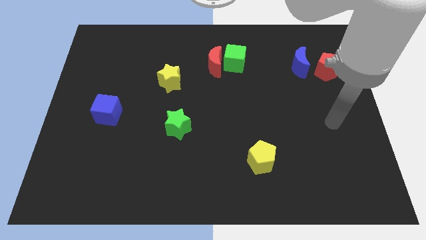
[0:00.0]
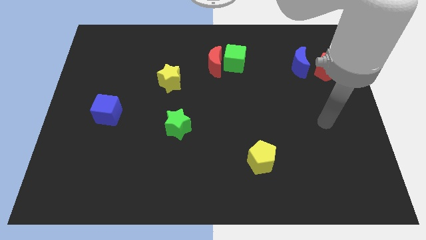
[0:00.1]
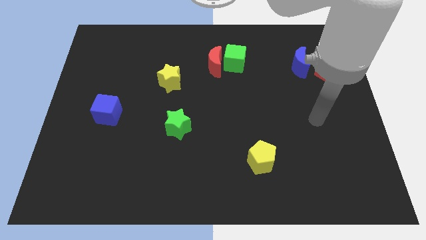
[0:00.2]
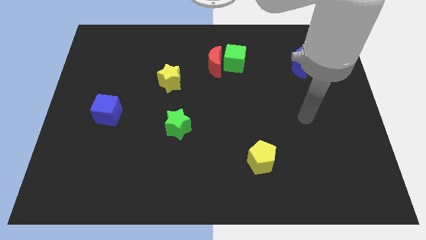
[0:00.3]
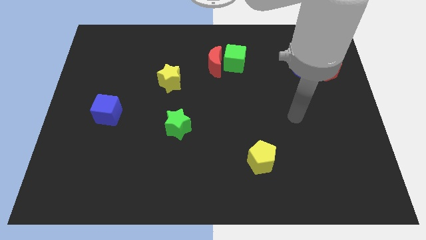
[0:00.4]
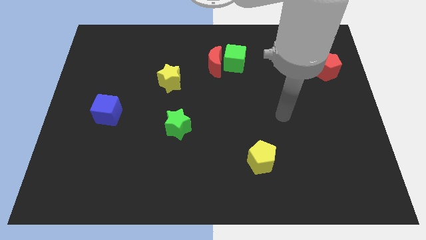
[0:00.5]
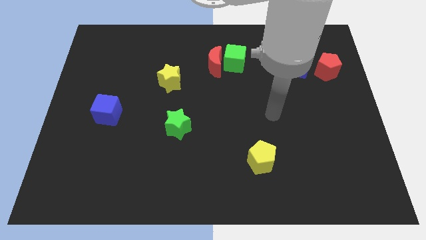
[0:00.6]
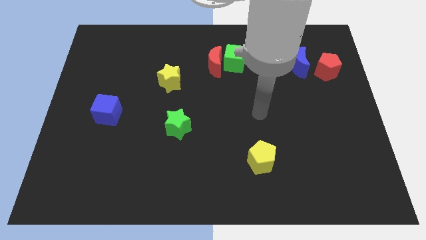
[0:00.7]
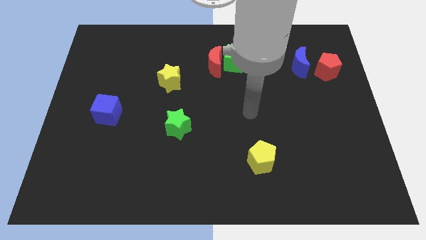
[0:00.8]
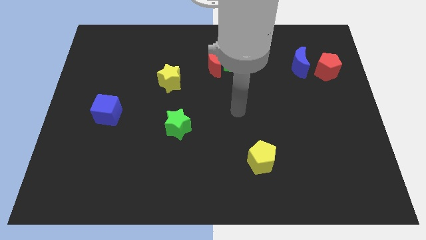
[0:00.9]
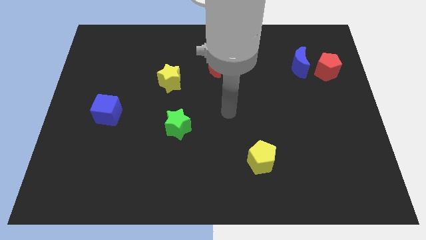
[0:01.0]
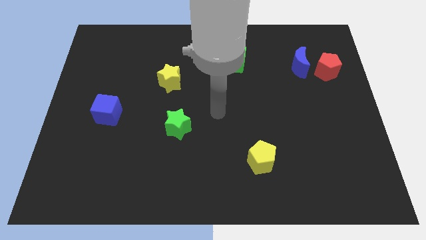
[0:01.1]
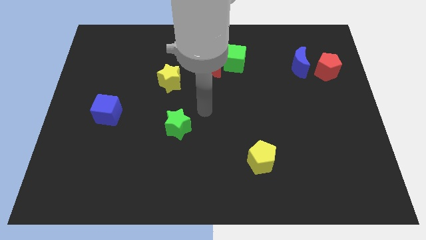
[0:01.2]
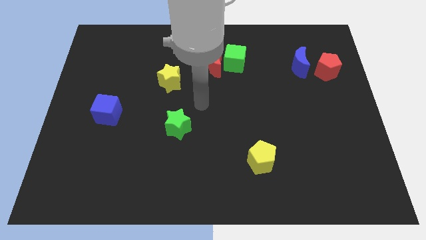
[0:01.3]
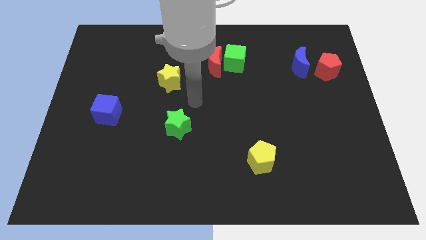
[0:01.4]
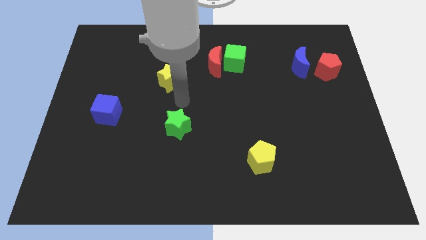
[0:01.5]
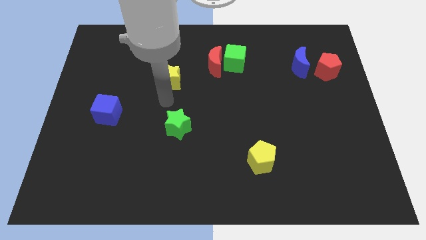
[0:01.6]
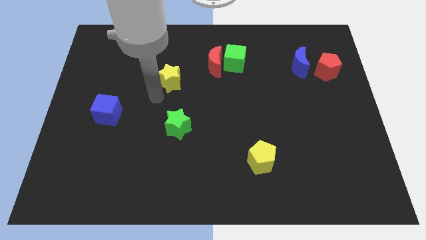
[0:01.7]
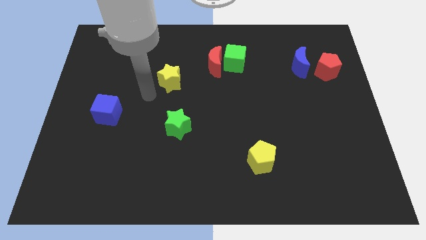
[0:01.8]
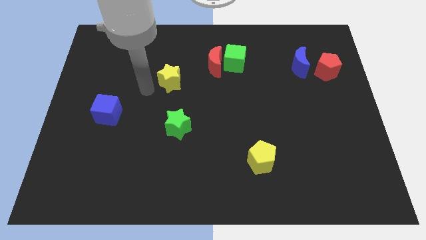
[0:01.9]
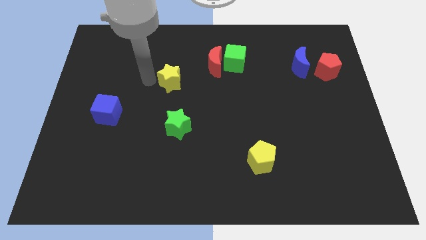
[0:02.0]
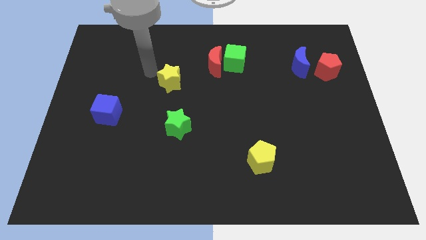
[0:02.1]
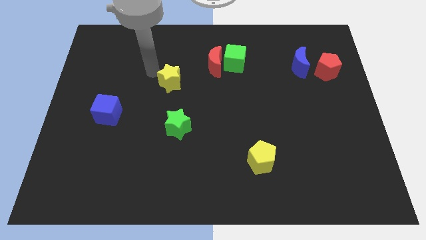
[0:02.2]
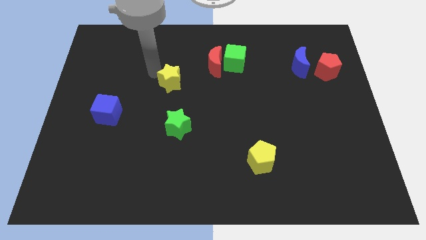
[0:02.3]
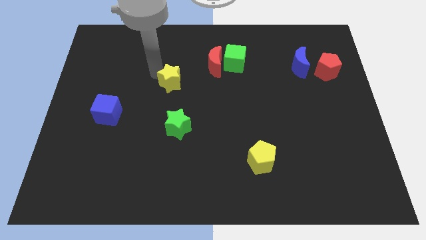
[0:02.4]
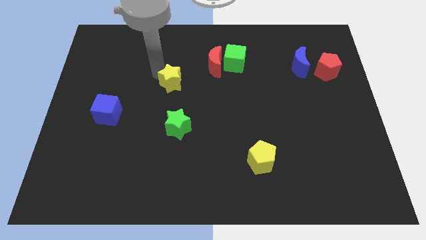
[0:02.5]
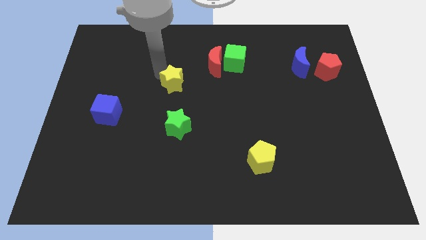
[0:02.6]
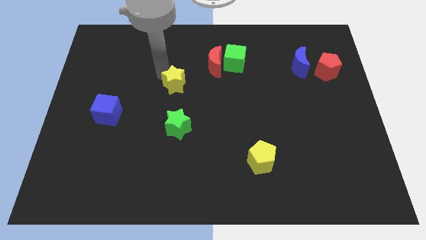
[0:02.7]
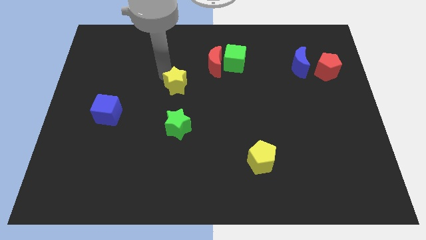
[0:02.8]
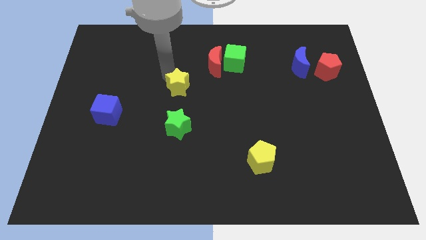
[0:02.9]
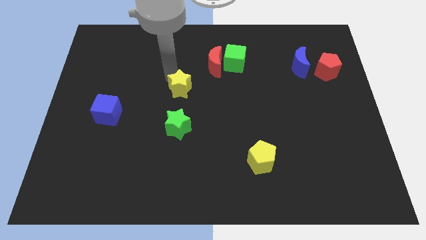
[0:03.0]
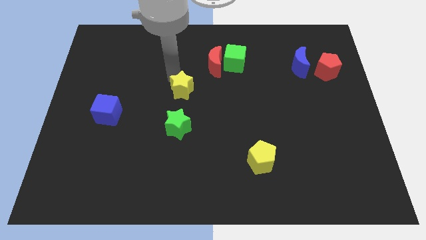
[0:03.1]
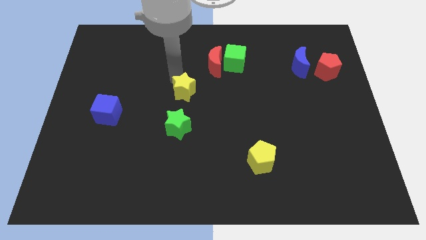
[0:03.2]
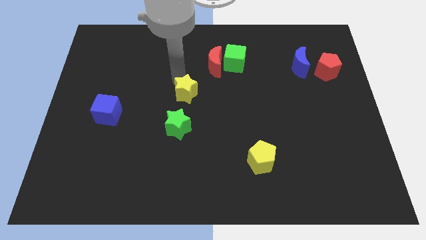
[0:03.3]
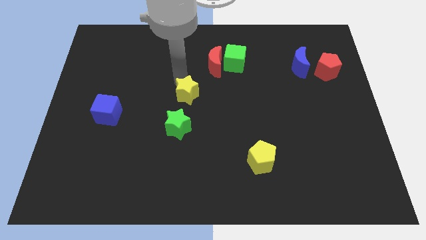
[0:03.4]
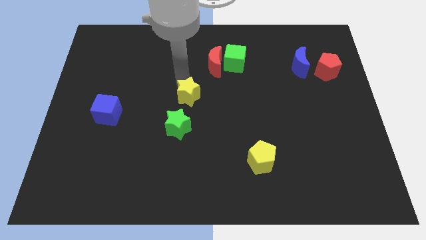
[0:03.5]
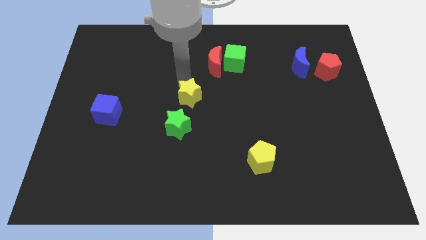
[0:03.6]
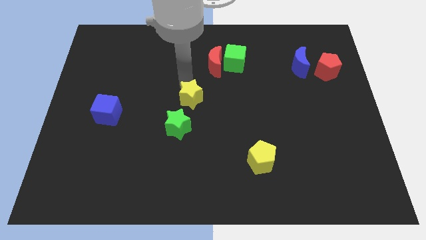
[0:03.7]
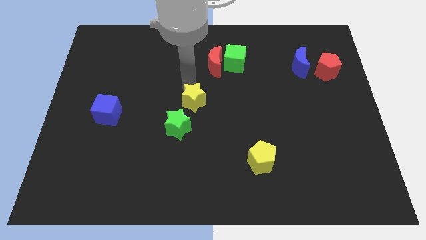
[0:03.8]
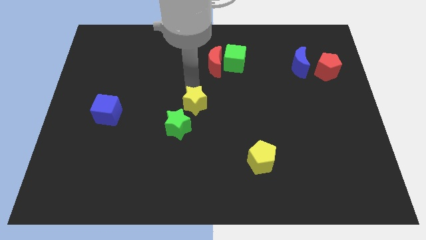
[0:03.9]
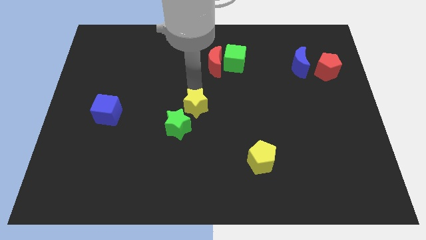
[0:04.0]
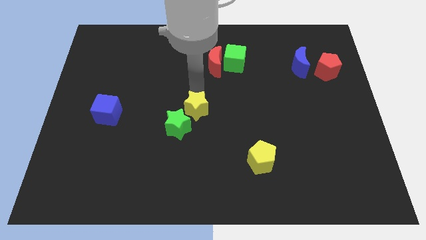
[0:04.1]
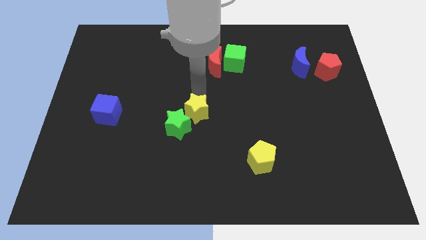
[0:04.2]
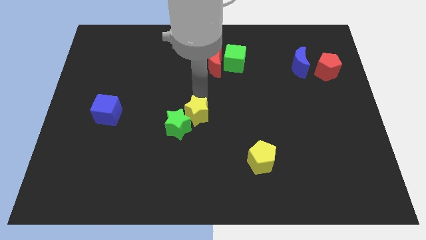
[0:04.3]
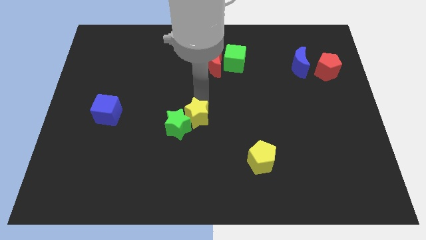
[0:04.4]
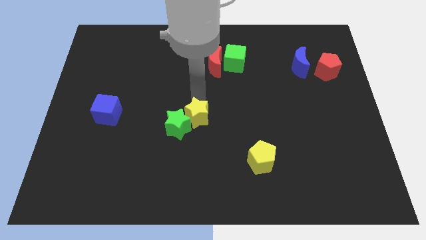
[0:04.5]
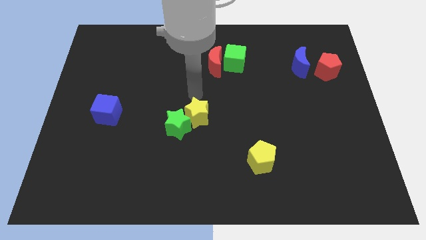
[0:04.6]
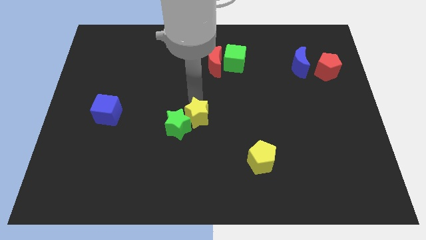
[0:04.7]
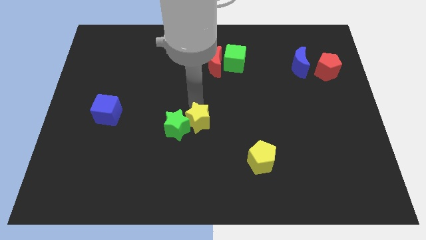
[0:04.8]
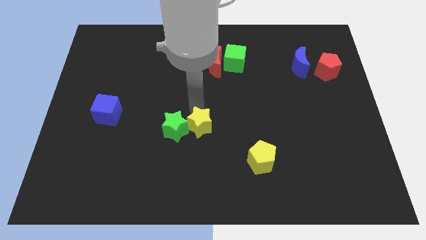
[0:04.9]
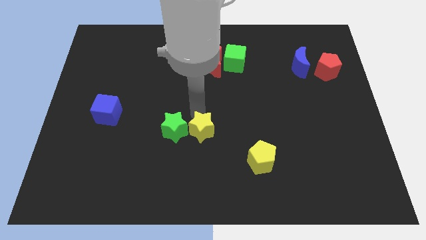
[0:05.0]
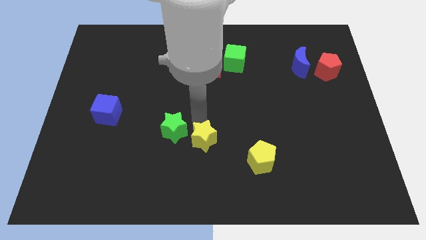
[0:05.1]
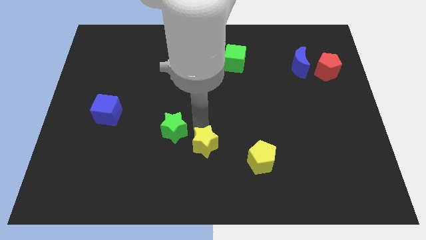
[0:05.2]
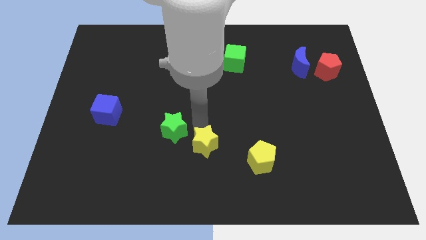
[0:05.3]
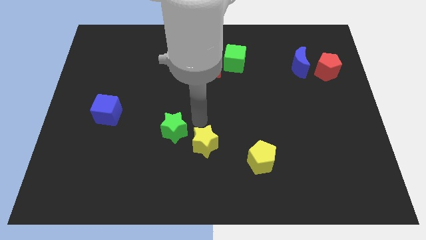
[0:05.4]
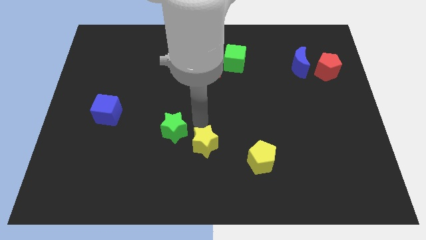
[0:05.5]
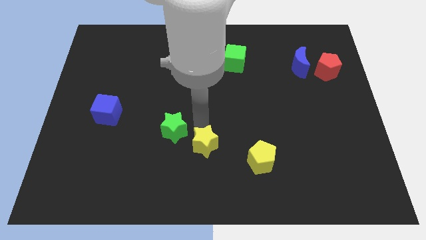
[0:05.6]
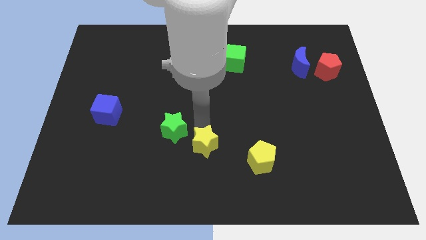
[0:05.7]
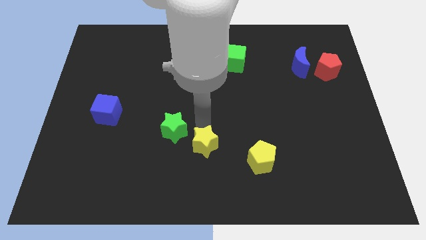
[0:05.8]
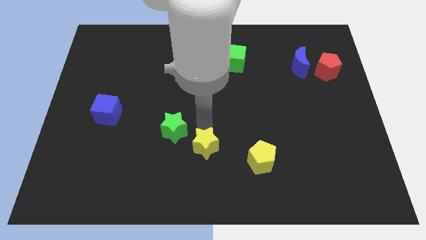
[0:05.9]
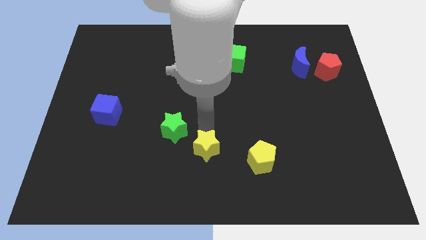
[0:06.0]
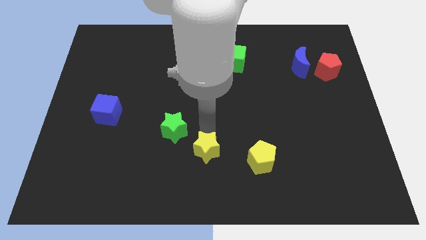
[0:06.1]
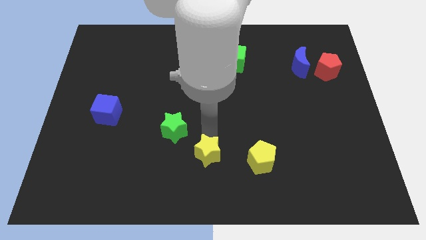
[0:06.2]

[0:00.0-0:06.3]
push the yellow star to the bottom side
